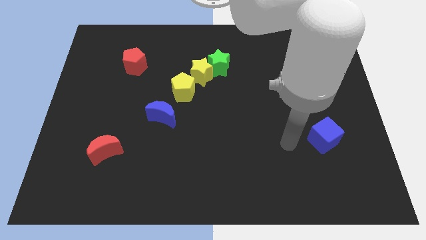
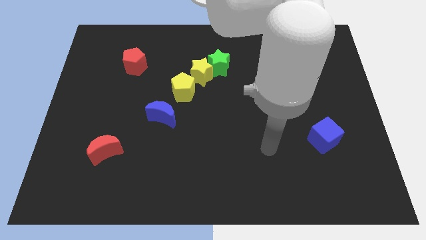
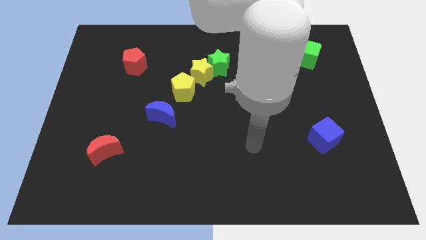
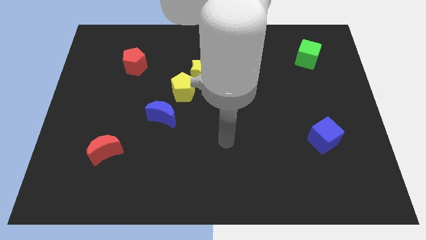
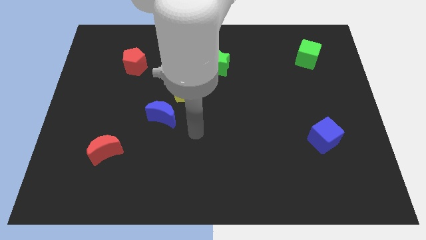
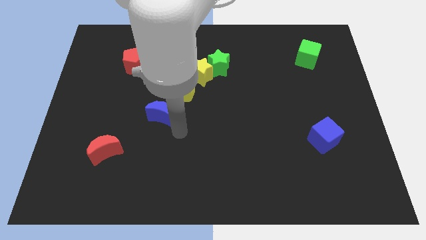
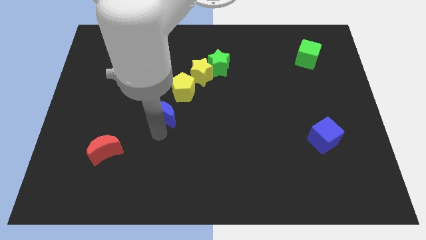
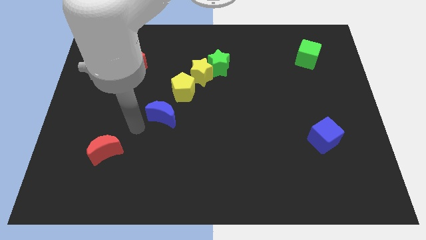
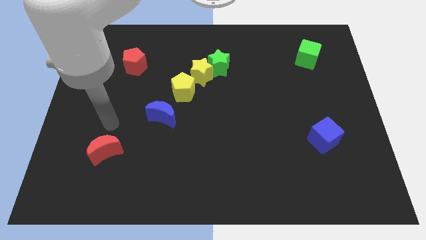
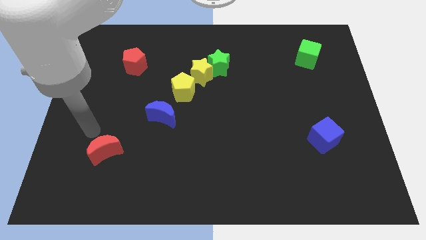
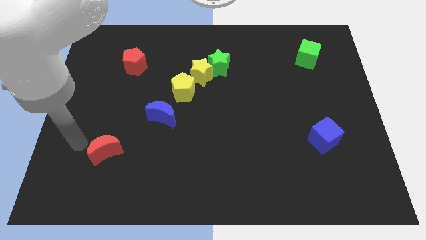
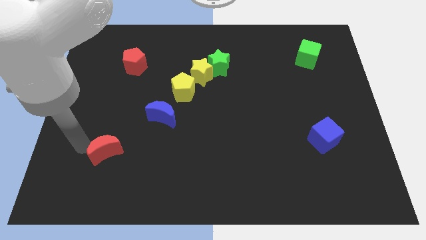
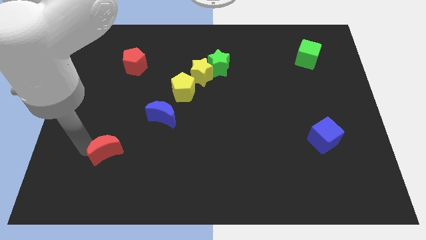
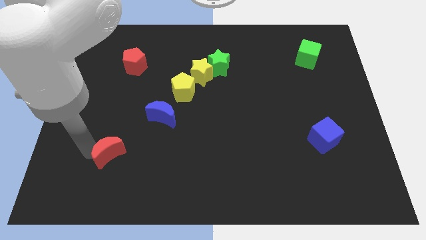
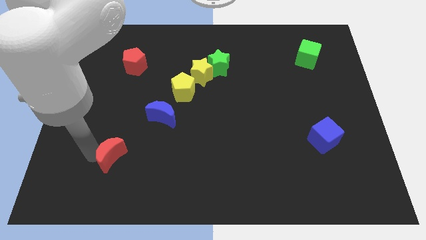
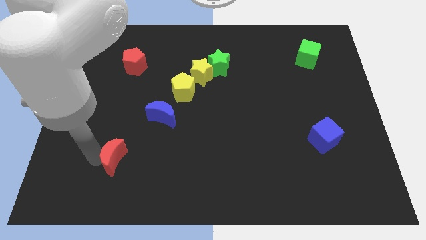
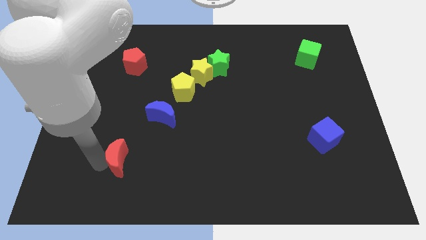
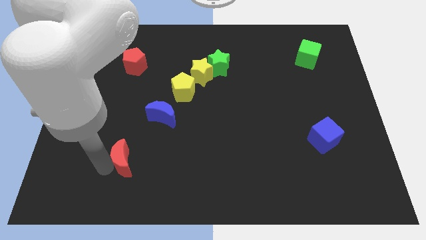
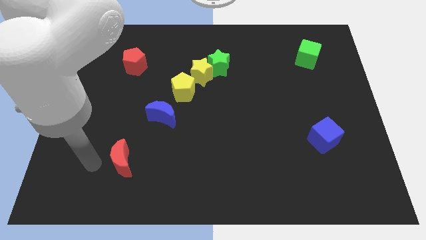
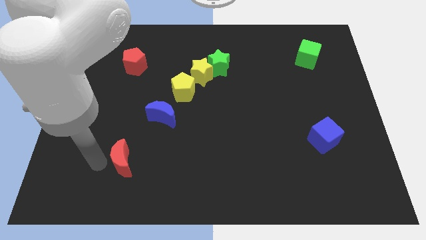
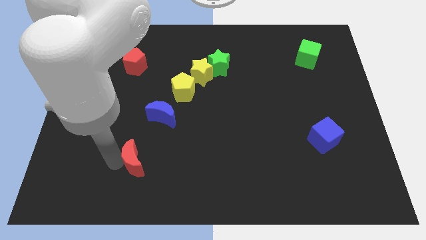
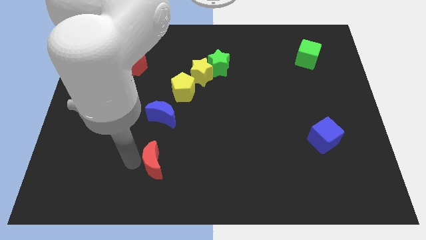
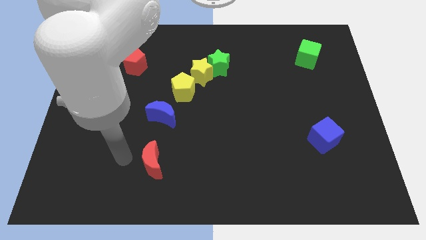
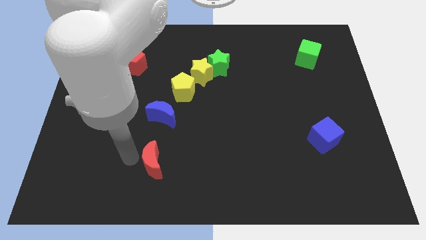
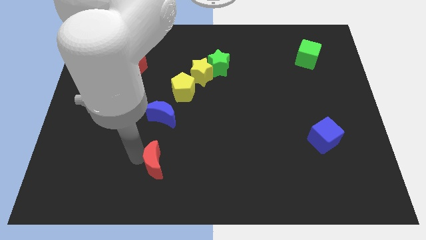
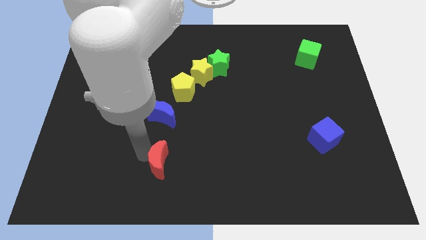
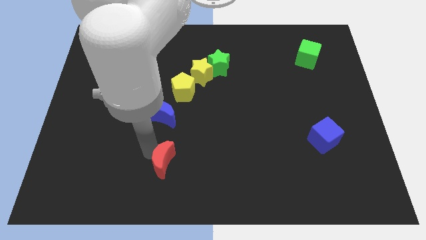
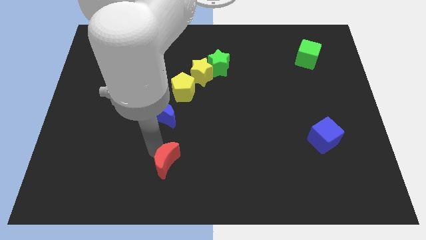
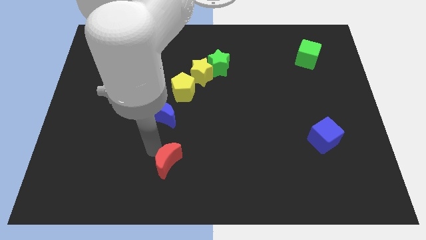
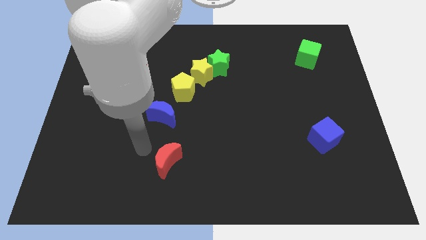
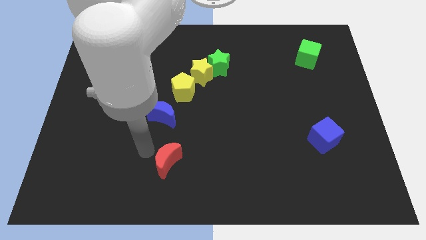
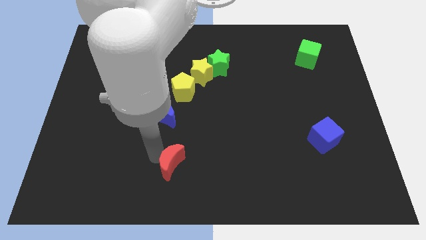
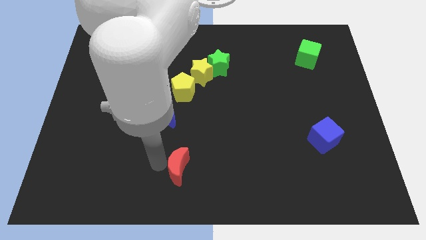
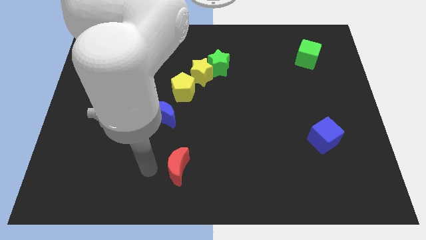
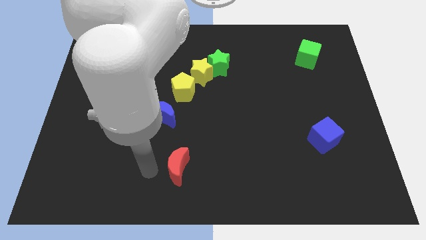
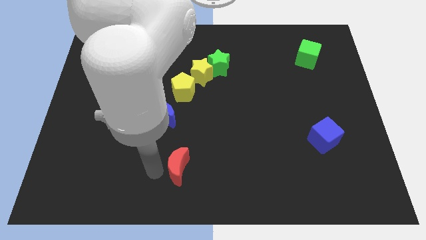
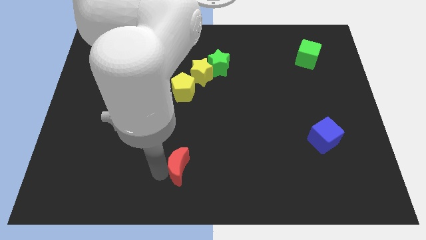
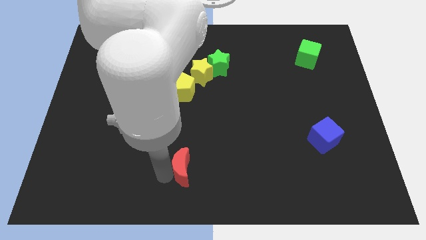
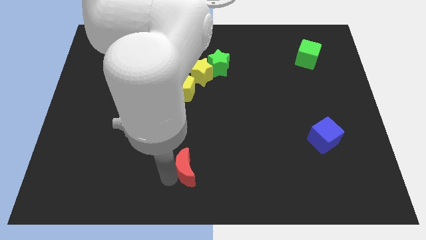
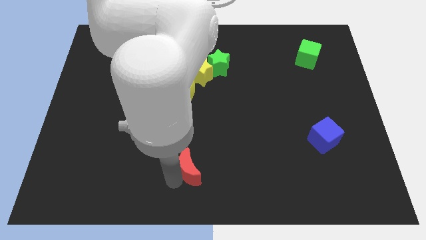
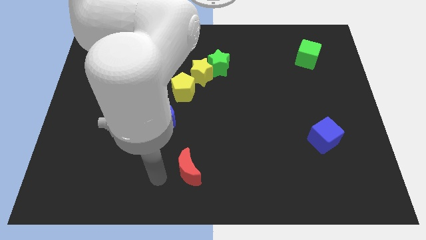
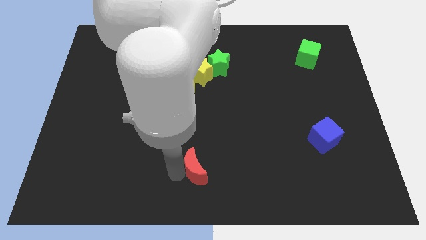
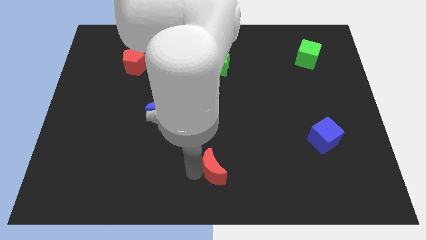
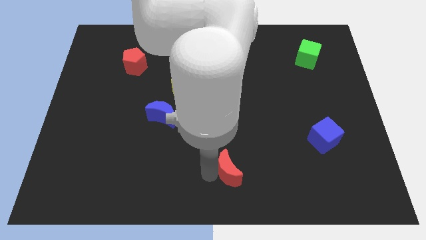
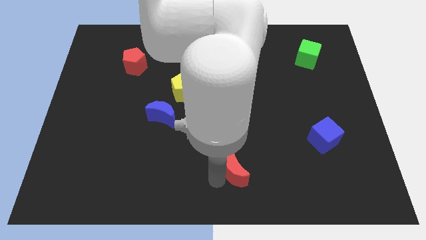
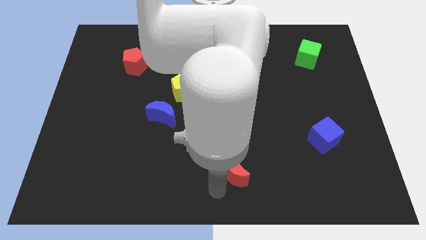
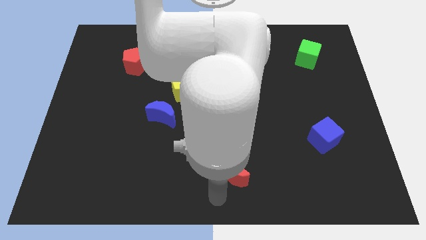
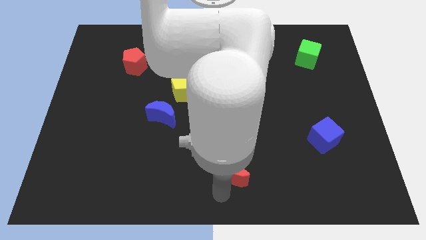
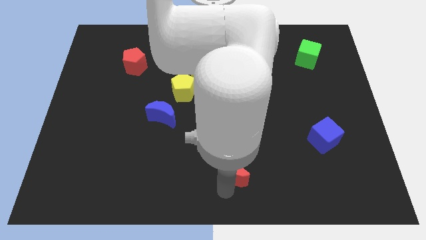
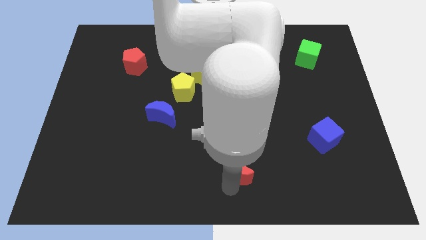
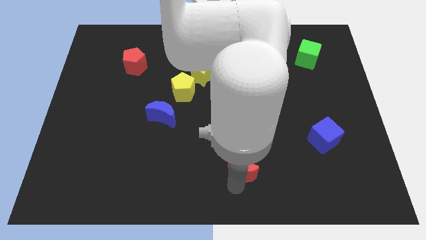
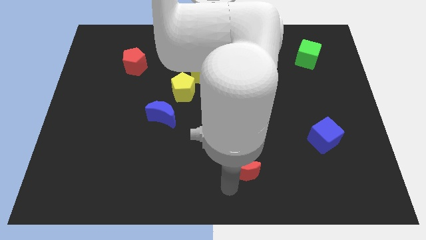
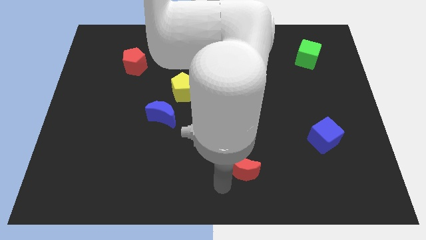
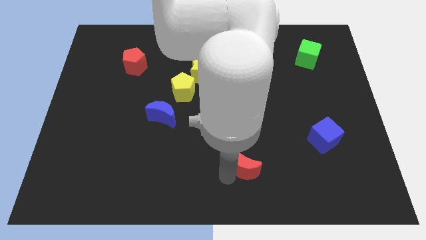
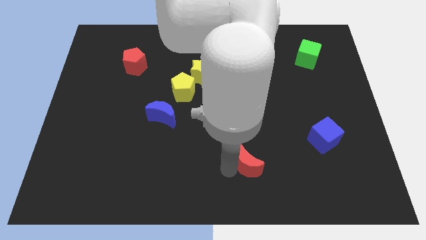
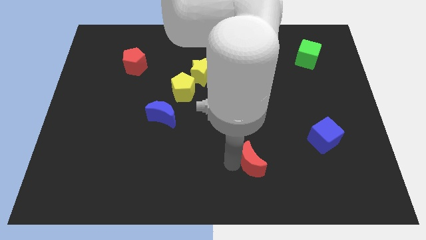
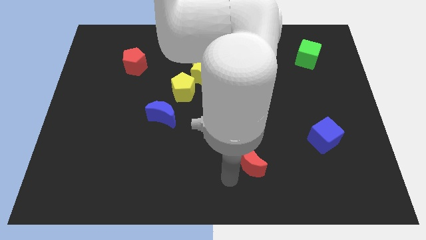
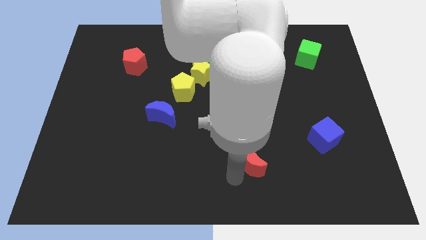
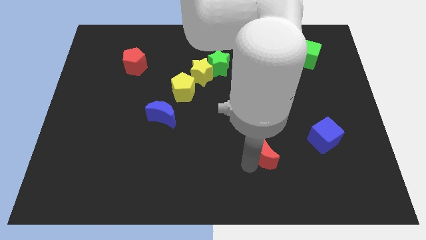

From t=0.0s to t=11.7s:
move the red moon left of the blue cube

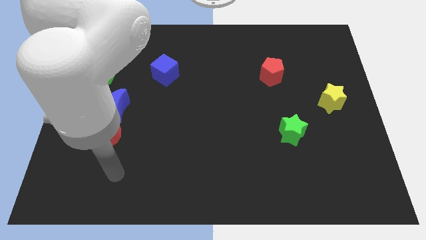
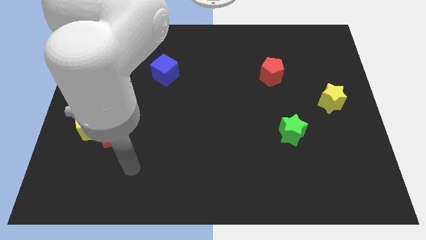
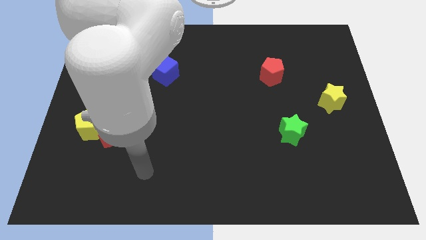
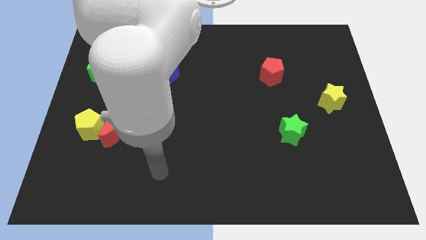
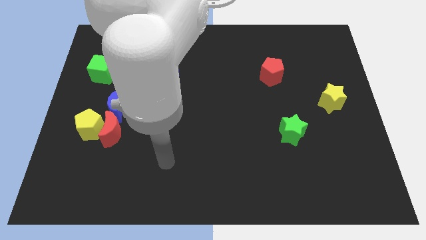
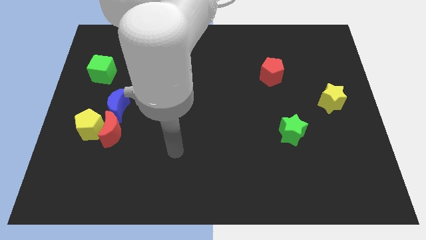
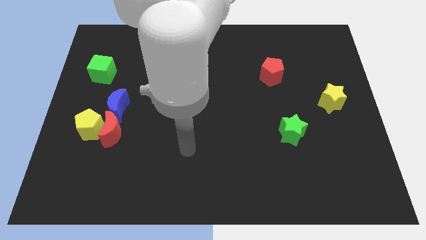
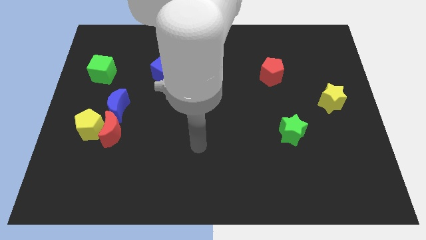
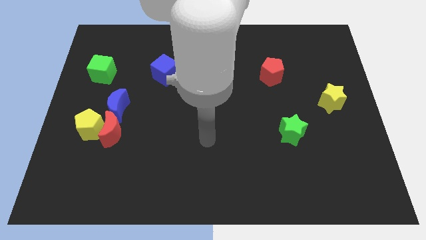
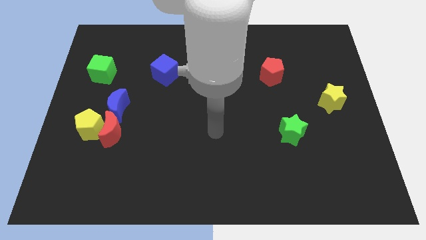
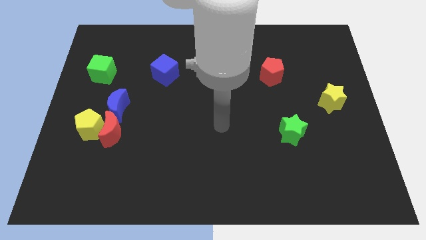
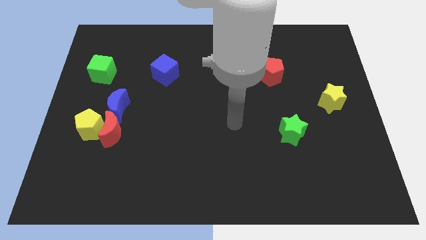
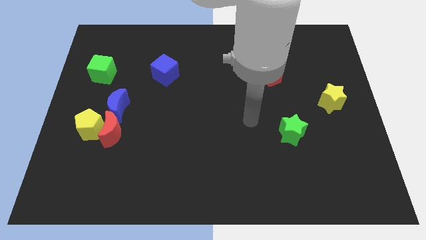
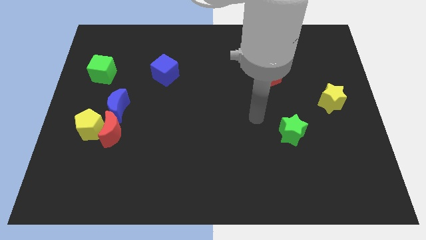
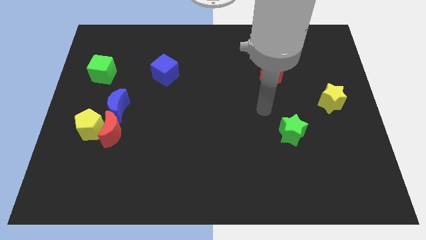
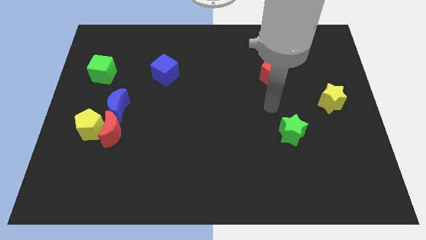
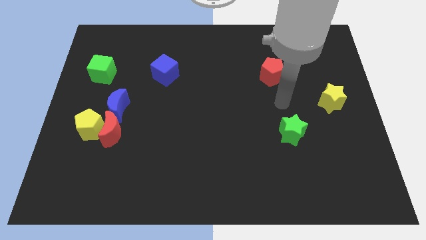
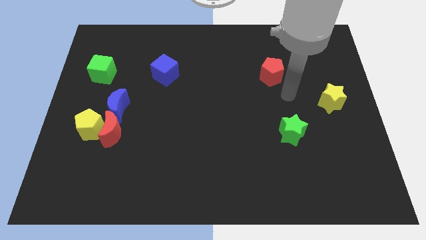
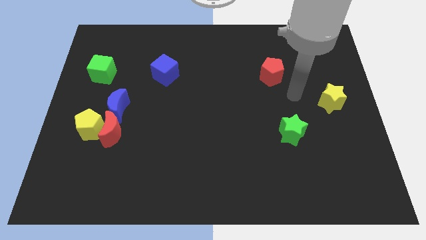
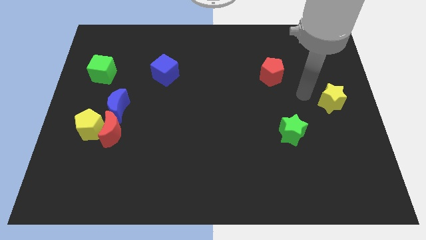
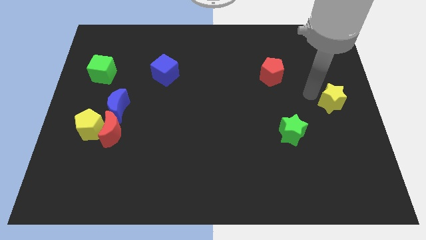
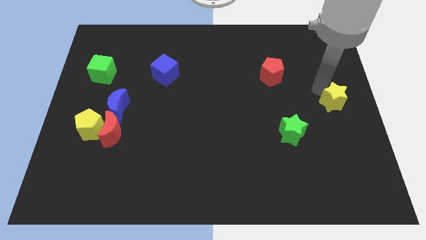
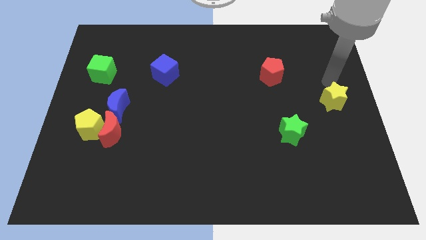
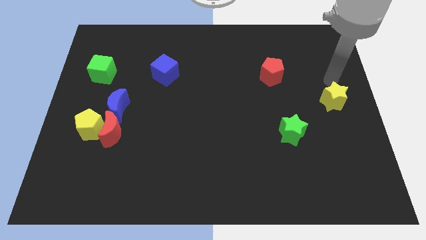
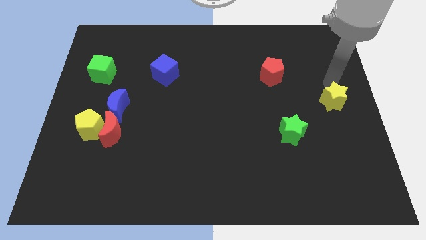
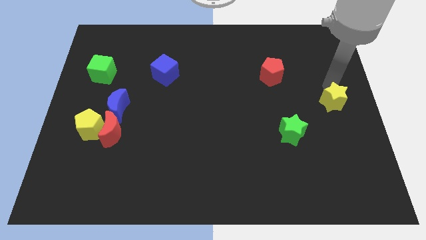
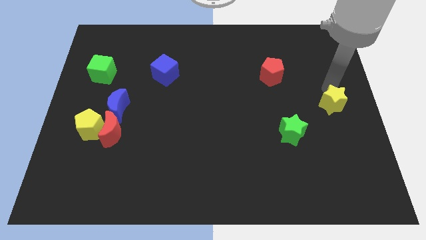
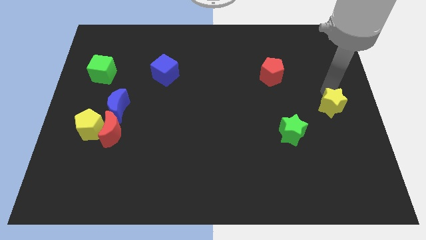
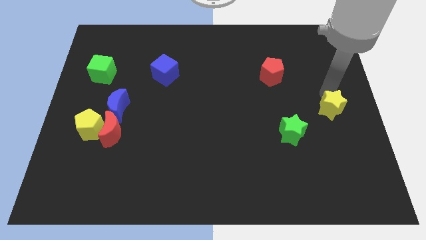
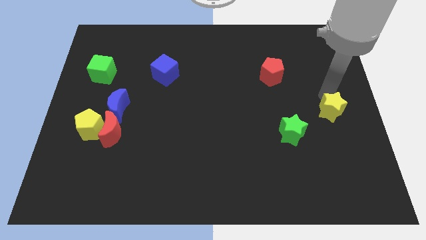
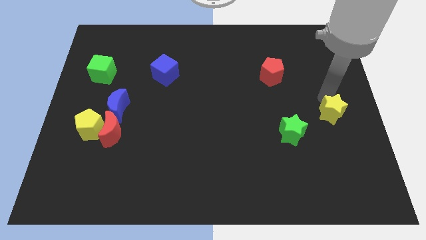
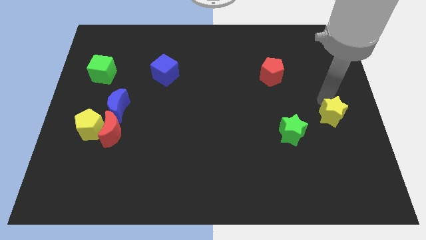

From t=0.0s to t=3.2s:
put the yellow star just right of the green star
